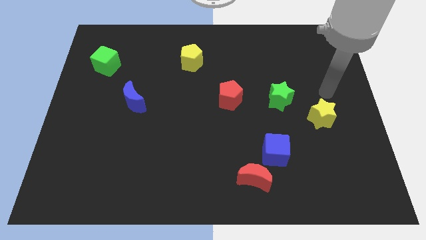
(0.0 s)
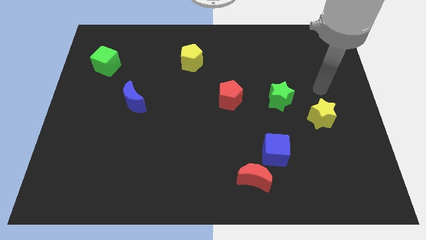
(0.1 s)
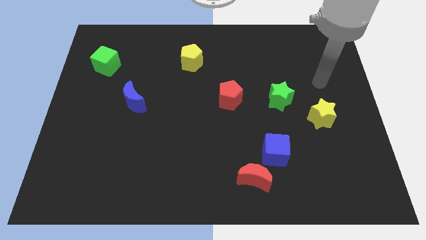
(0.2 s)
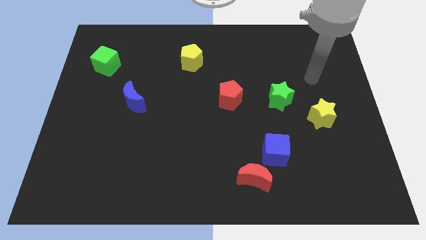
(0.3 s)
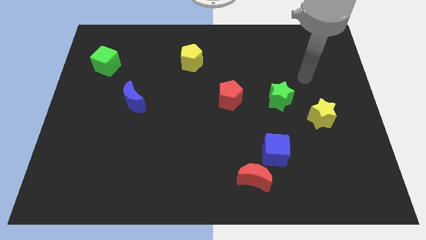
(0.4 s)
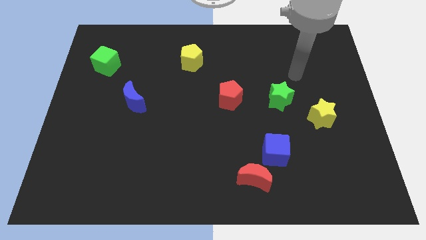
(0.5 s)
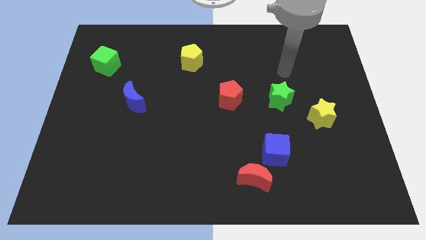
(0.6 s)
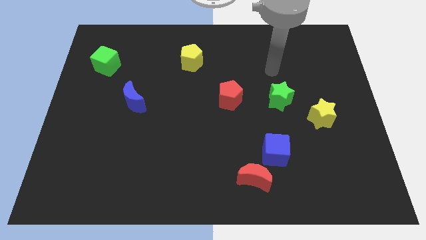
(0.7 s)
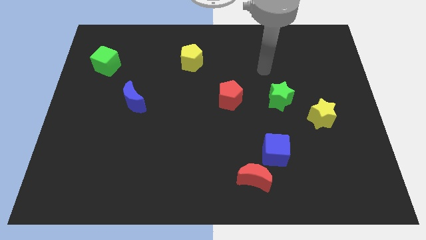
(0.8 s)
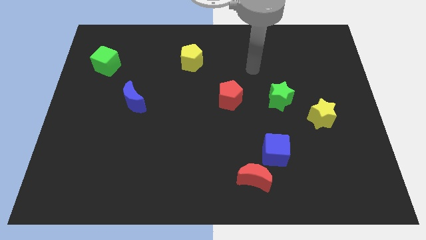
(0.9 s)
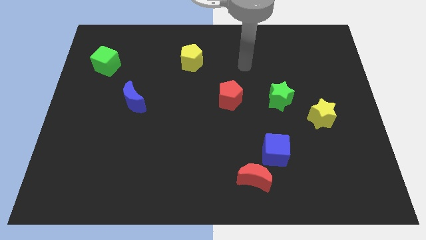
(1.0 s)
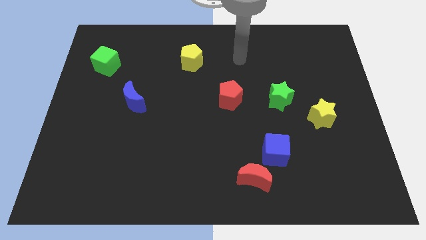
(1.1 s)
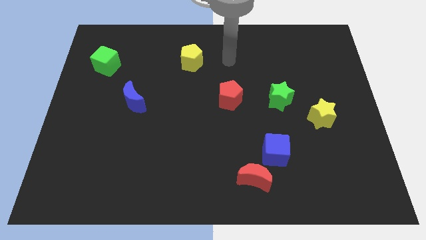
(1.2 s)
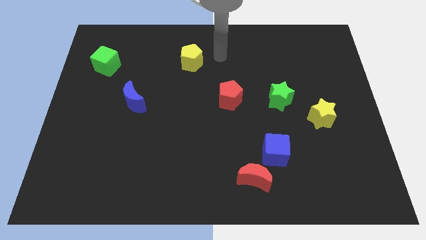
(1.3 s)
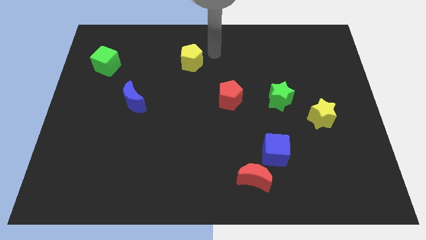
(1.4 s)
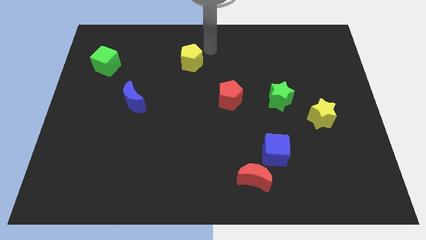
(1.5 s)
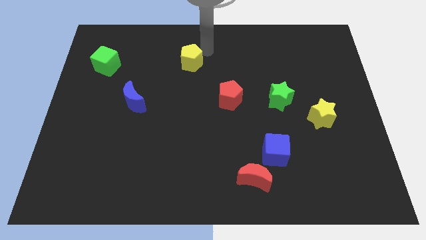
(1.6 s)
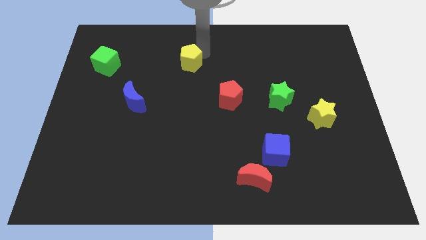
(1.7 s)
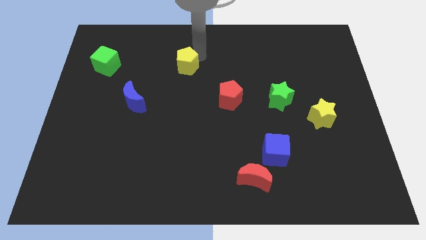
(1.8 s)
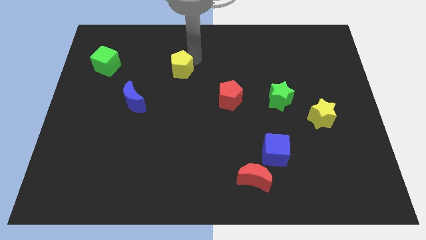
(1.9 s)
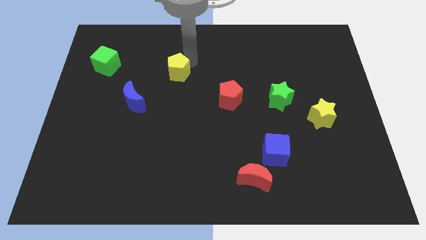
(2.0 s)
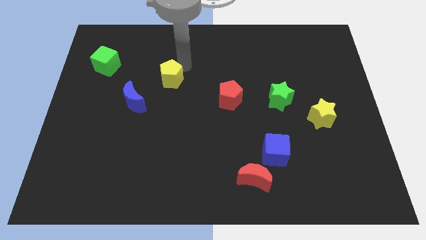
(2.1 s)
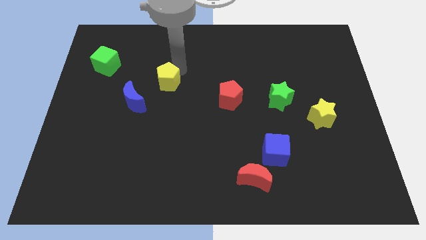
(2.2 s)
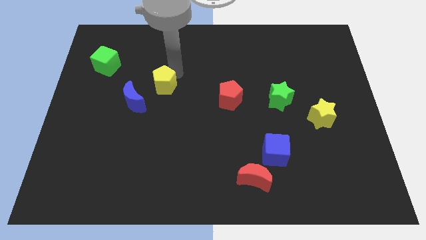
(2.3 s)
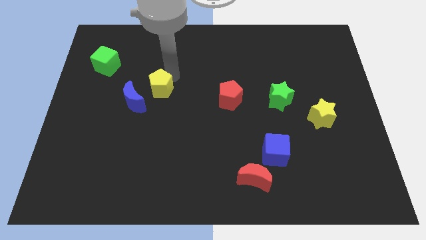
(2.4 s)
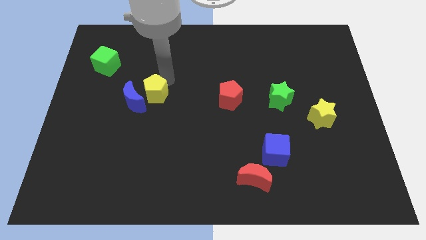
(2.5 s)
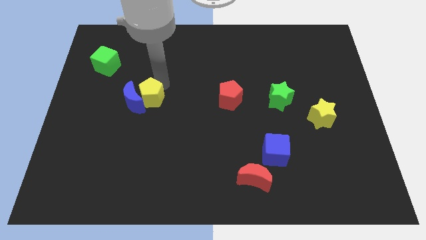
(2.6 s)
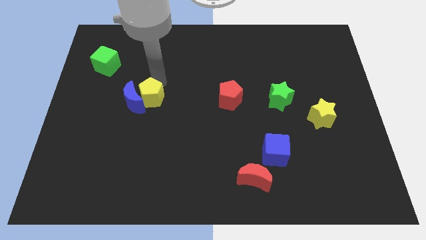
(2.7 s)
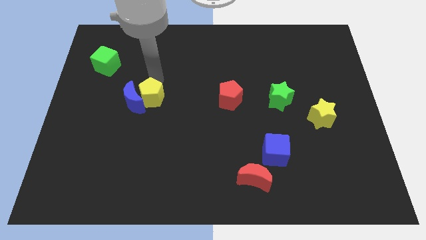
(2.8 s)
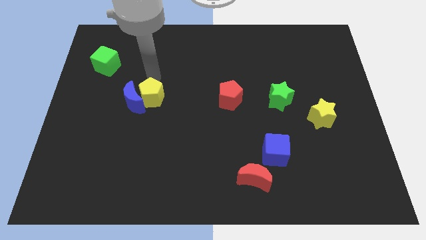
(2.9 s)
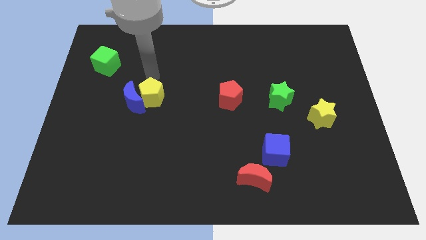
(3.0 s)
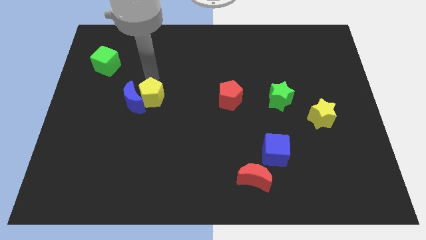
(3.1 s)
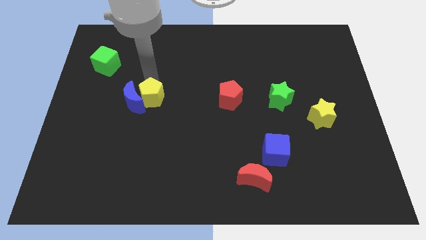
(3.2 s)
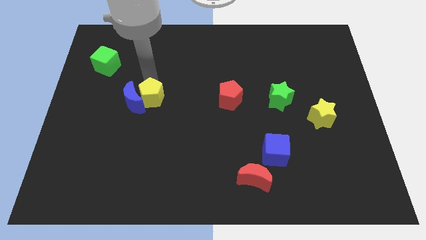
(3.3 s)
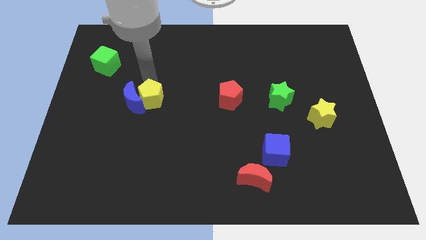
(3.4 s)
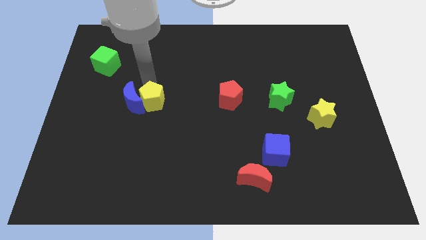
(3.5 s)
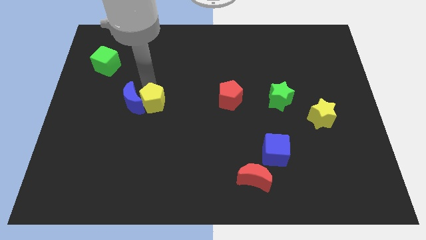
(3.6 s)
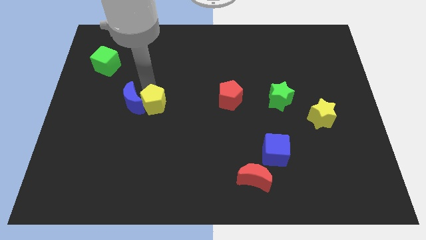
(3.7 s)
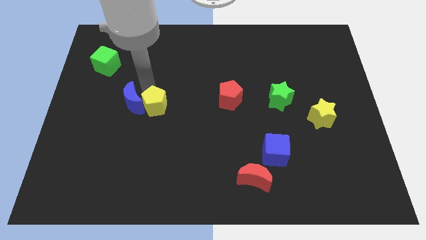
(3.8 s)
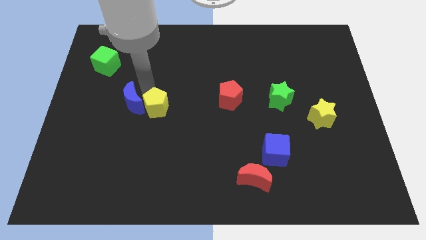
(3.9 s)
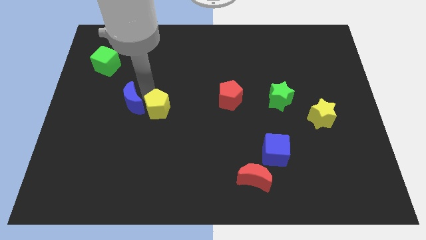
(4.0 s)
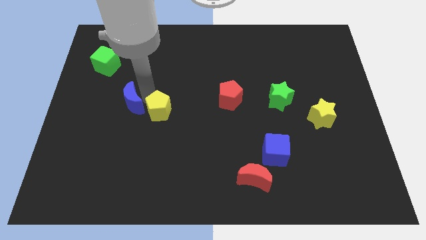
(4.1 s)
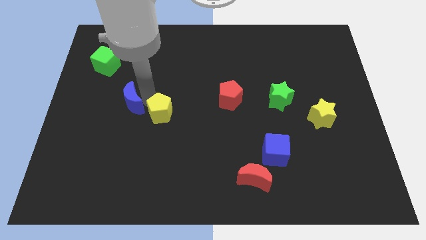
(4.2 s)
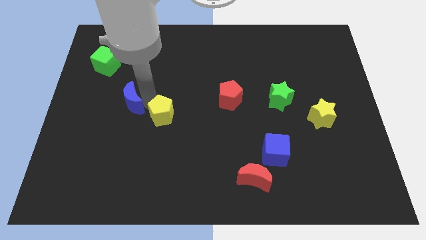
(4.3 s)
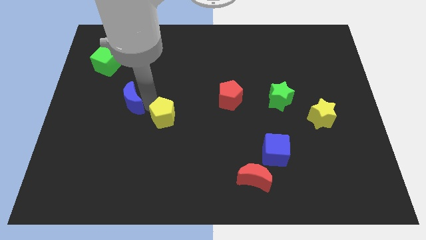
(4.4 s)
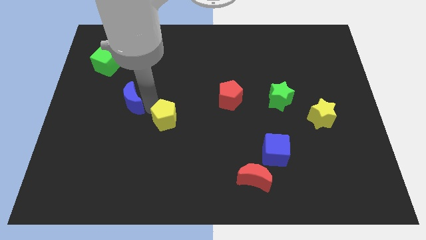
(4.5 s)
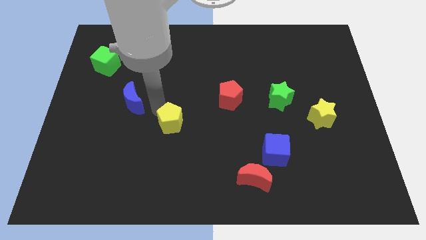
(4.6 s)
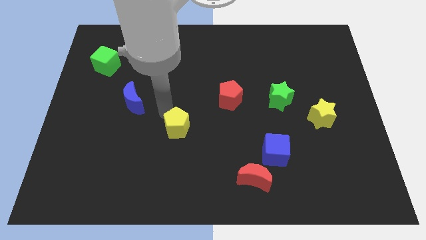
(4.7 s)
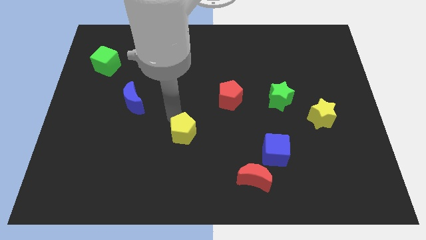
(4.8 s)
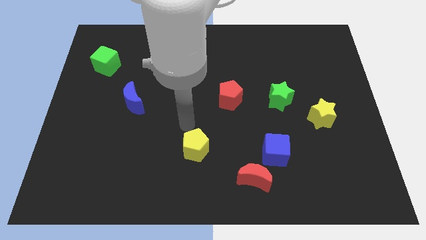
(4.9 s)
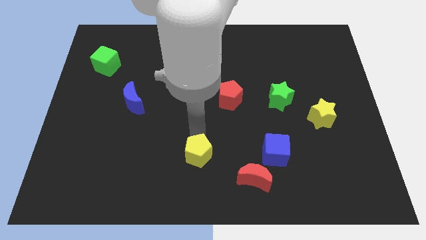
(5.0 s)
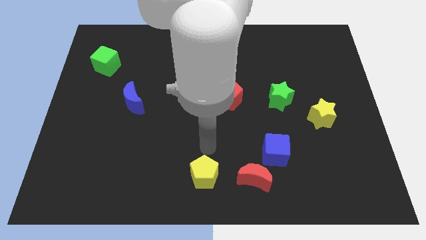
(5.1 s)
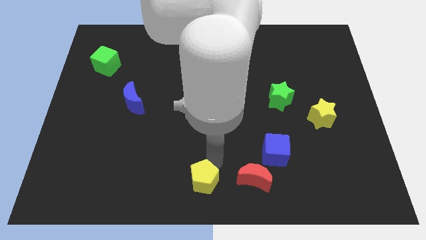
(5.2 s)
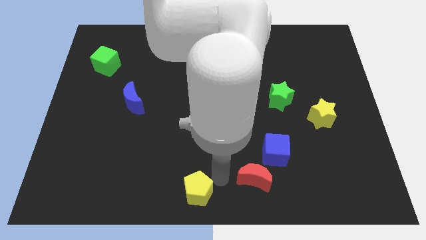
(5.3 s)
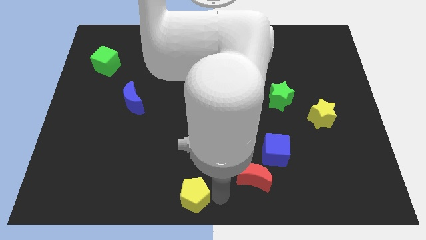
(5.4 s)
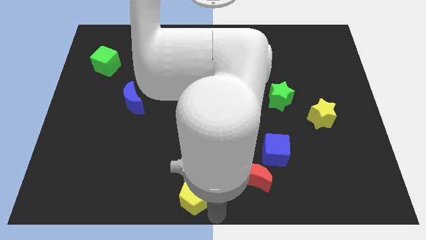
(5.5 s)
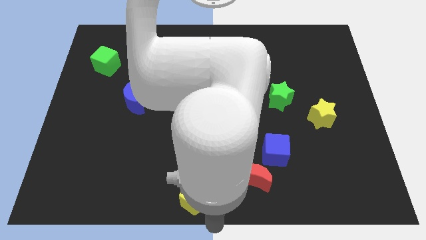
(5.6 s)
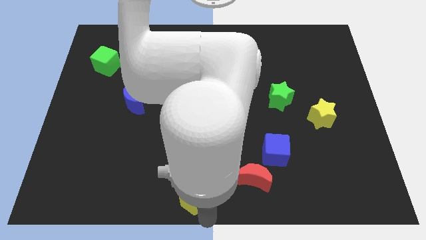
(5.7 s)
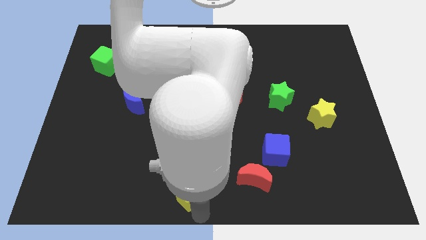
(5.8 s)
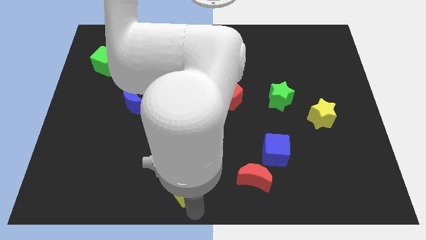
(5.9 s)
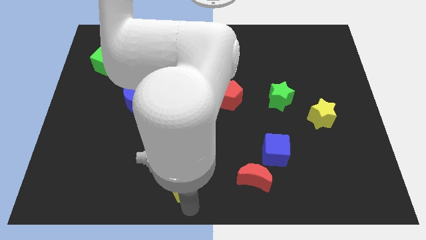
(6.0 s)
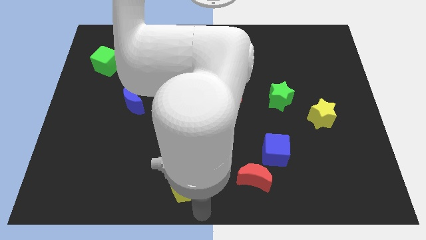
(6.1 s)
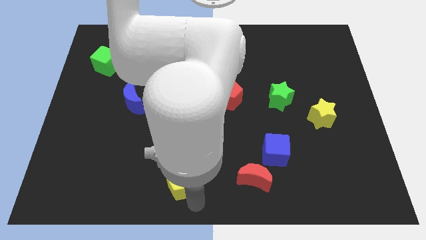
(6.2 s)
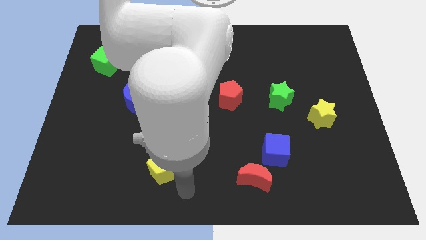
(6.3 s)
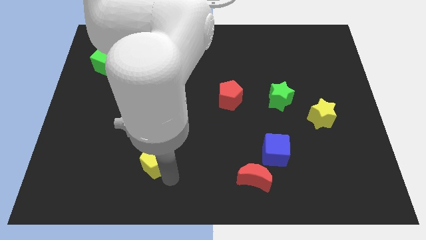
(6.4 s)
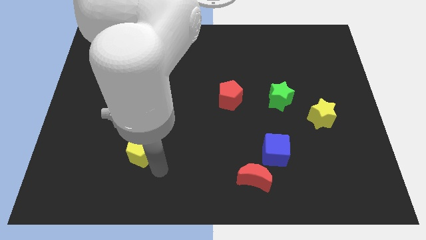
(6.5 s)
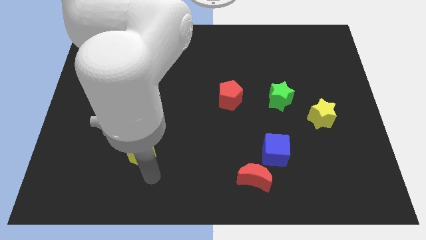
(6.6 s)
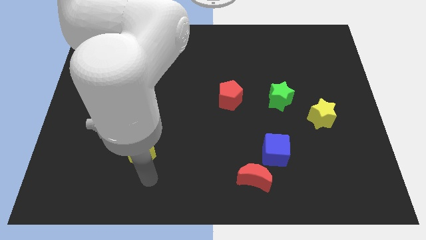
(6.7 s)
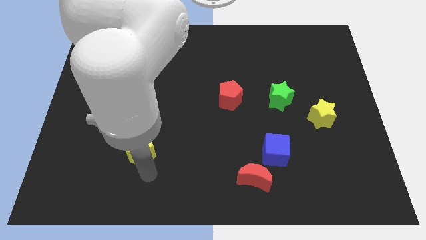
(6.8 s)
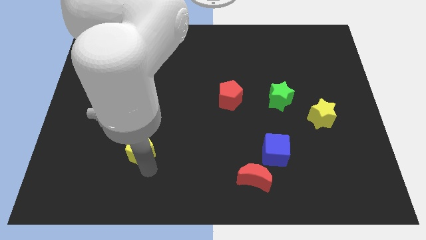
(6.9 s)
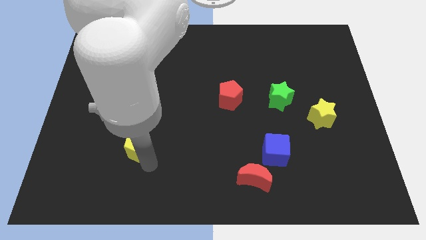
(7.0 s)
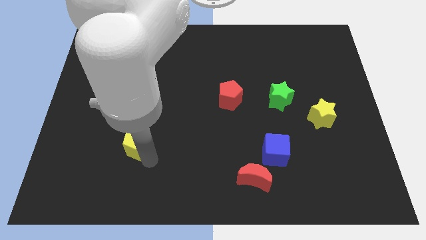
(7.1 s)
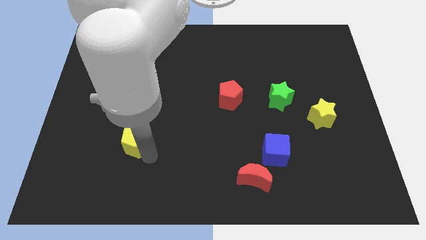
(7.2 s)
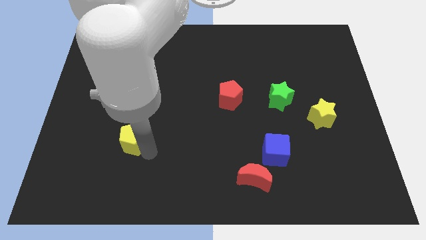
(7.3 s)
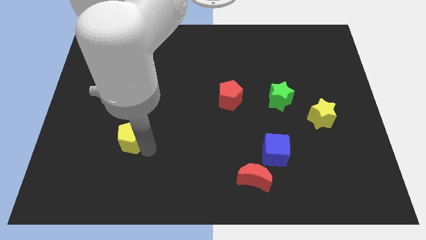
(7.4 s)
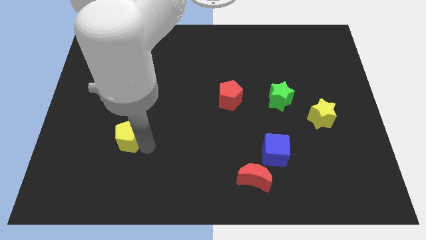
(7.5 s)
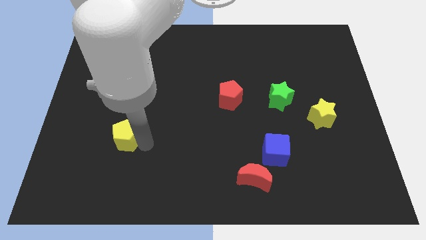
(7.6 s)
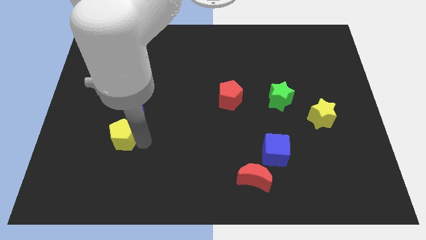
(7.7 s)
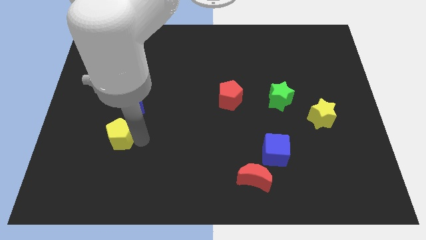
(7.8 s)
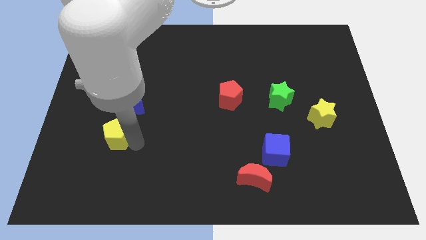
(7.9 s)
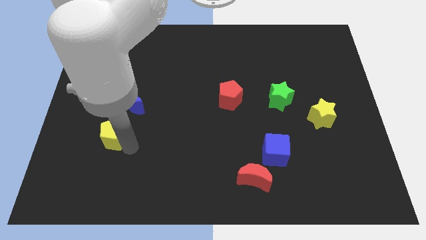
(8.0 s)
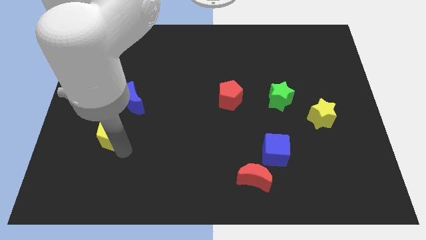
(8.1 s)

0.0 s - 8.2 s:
push the yellow pentagon to the bottom left of the blue moon
